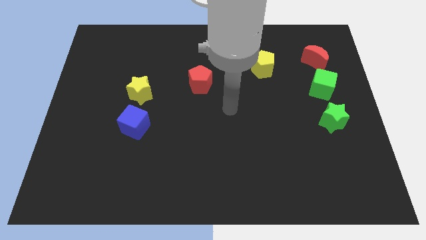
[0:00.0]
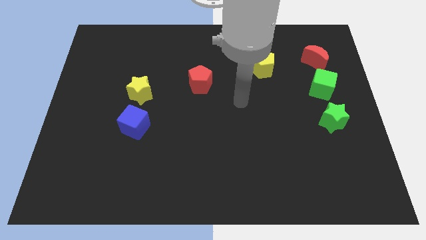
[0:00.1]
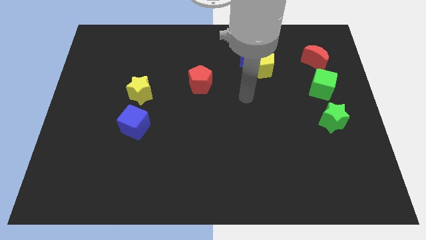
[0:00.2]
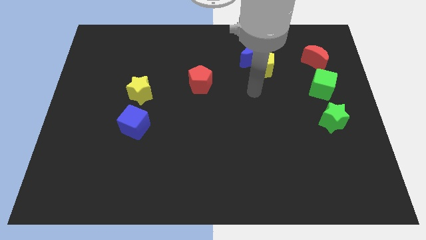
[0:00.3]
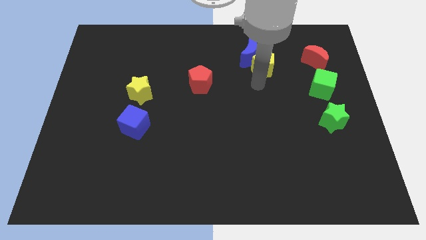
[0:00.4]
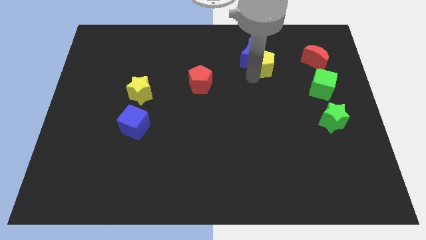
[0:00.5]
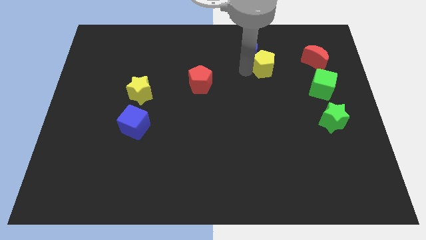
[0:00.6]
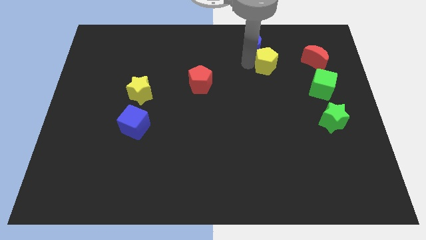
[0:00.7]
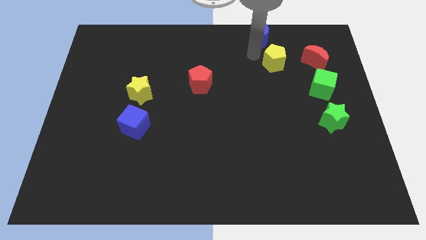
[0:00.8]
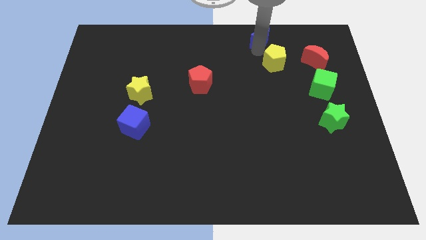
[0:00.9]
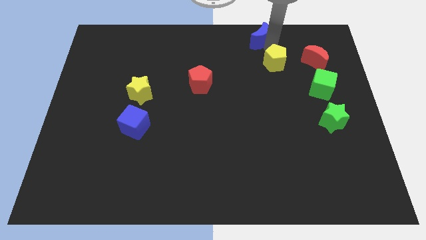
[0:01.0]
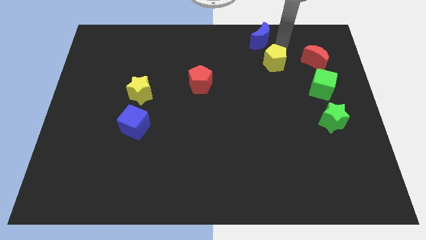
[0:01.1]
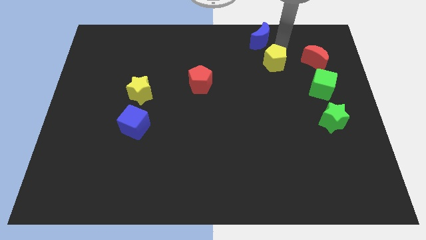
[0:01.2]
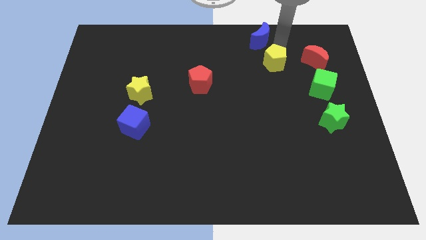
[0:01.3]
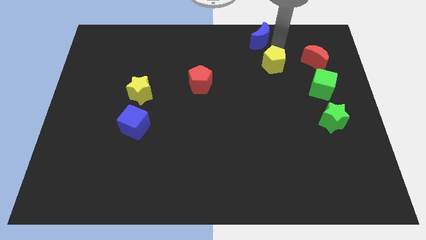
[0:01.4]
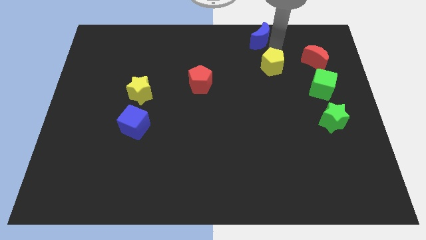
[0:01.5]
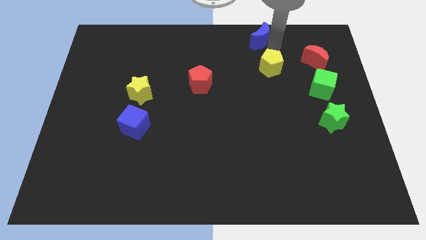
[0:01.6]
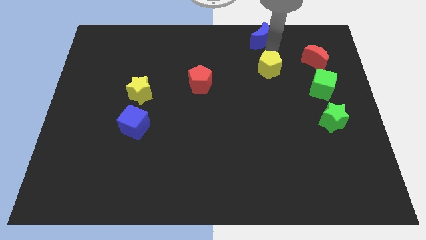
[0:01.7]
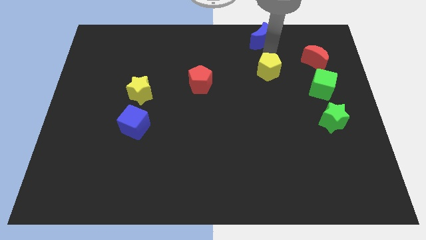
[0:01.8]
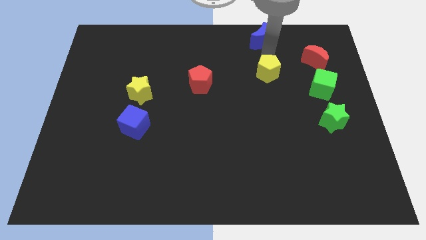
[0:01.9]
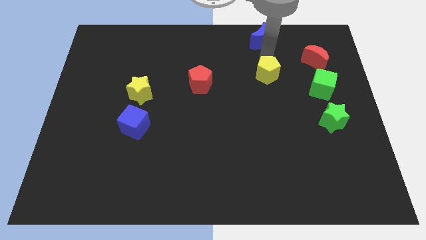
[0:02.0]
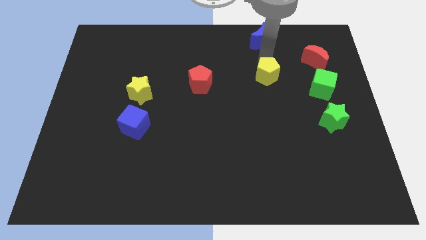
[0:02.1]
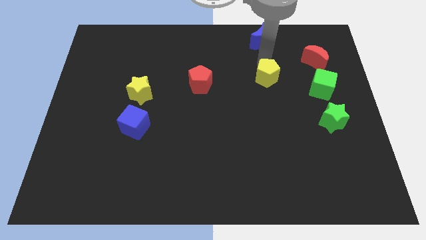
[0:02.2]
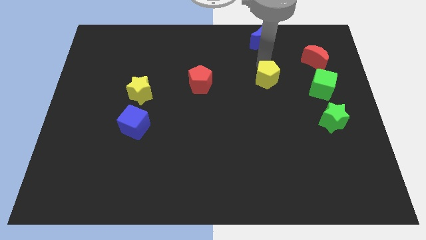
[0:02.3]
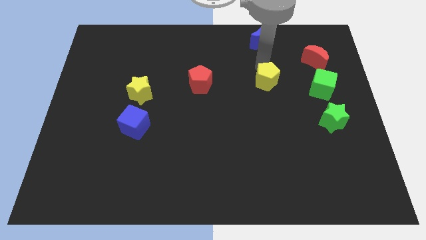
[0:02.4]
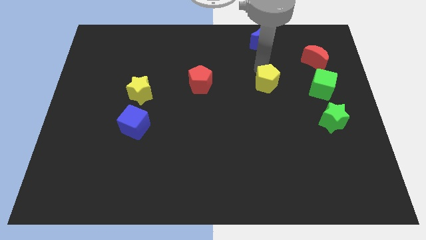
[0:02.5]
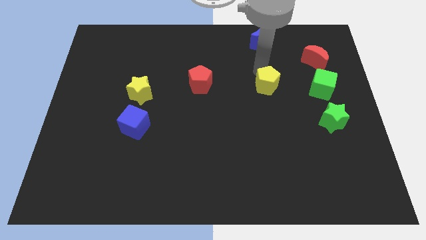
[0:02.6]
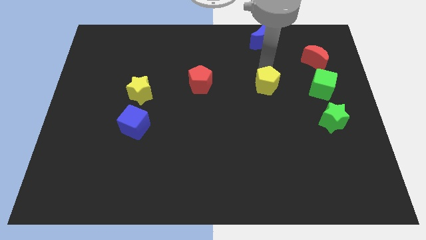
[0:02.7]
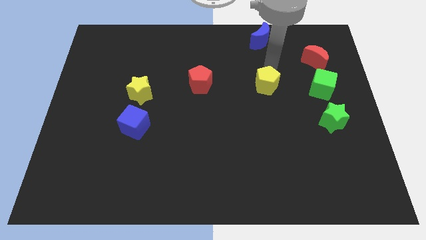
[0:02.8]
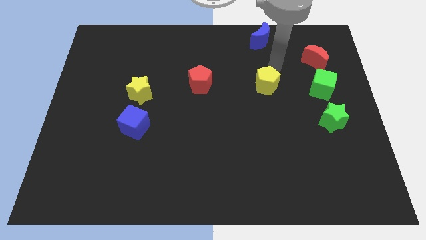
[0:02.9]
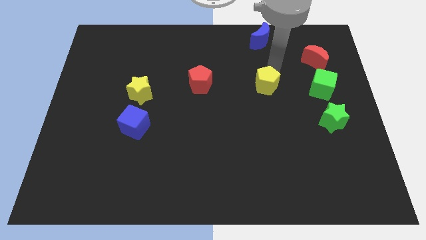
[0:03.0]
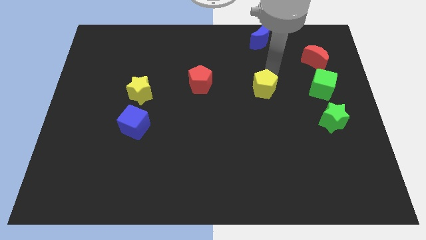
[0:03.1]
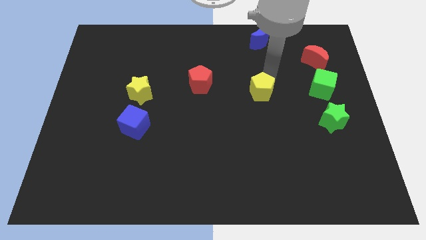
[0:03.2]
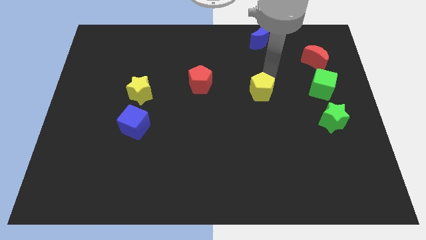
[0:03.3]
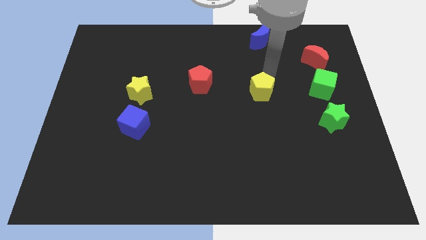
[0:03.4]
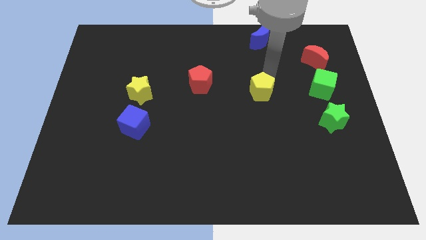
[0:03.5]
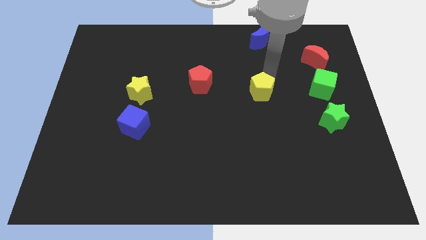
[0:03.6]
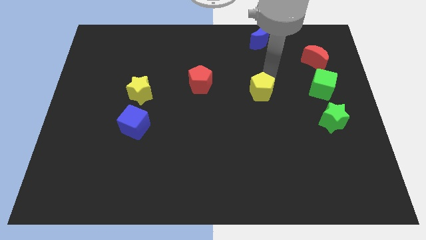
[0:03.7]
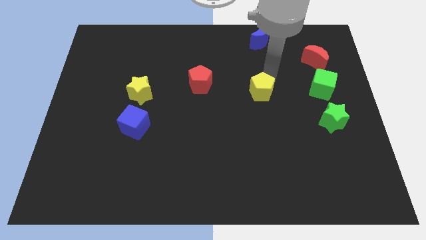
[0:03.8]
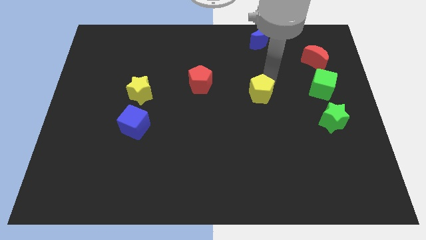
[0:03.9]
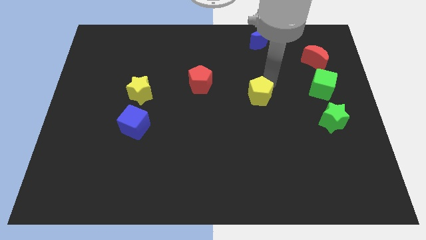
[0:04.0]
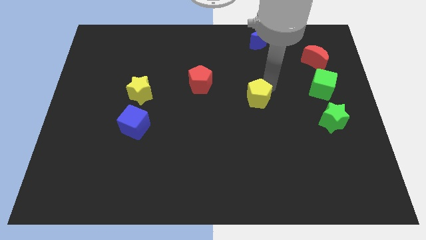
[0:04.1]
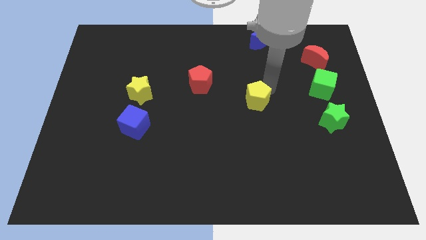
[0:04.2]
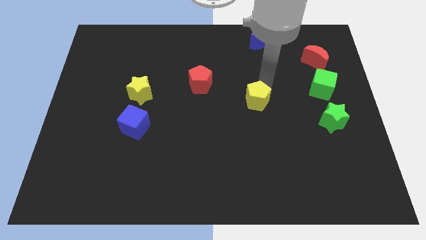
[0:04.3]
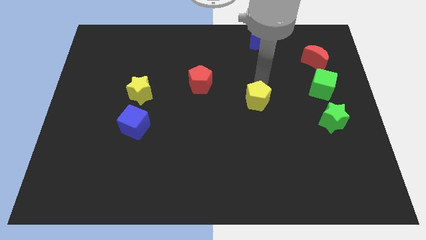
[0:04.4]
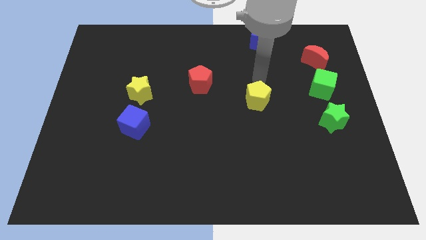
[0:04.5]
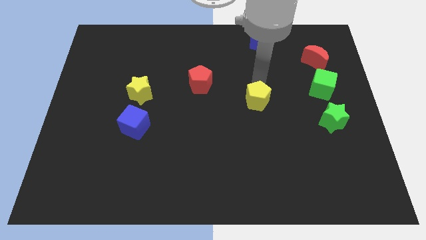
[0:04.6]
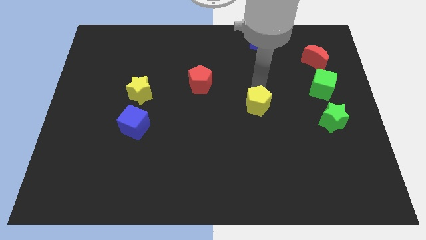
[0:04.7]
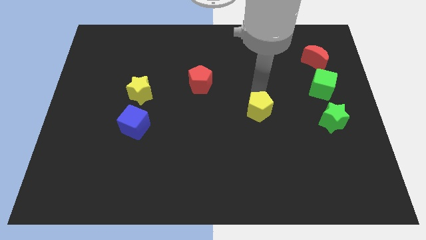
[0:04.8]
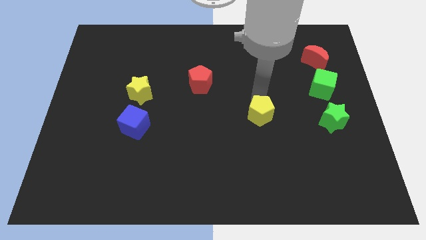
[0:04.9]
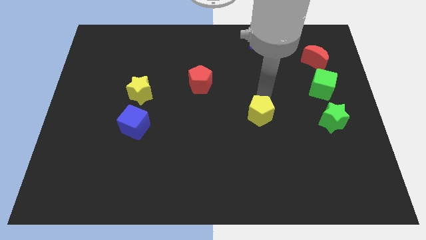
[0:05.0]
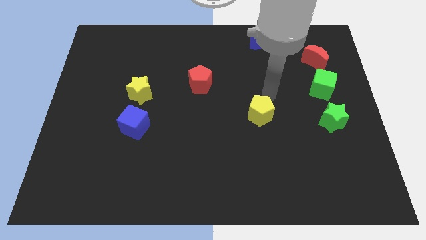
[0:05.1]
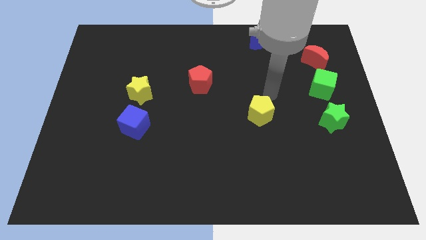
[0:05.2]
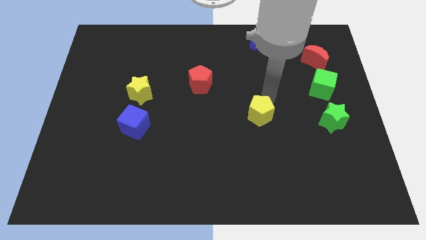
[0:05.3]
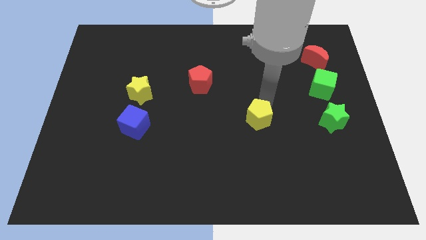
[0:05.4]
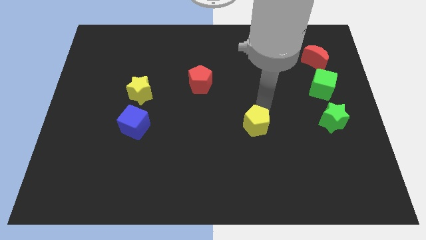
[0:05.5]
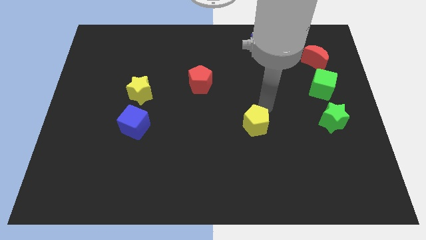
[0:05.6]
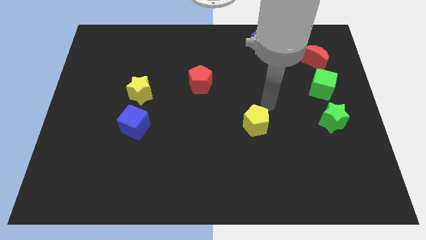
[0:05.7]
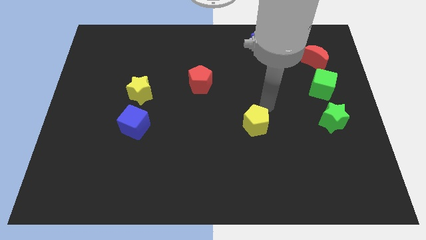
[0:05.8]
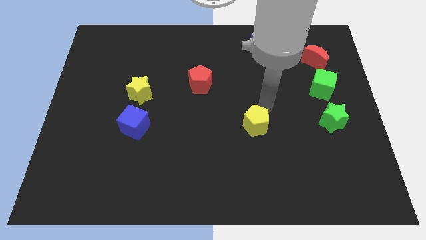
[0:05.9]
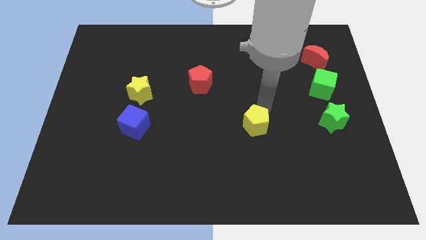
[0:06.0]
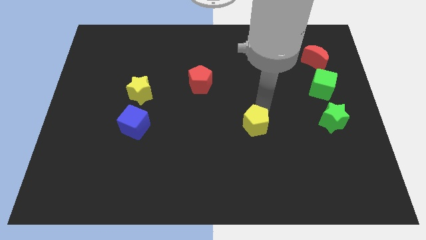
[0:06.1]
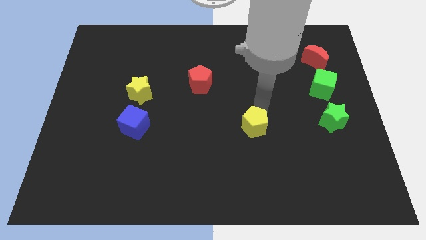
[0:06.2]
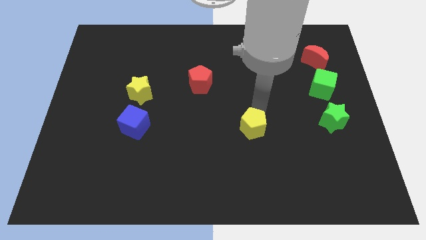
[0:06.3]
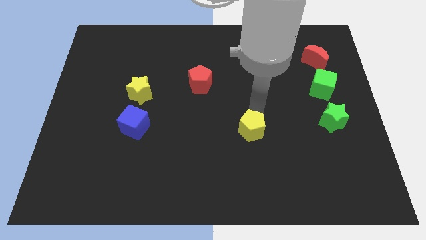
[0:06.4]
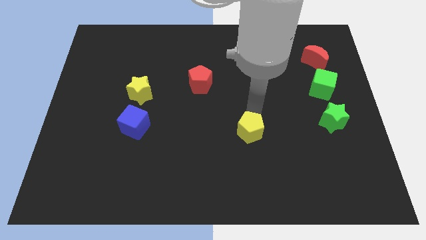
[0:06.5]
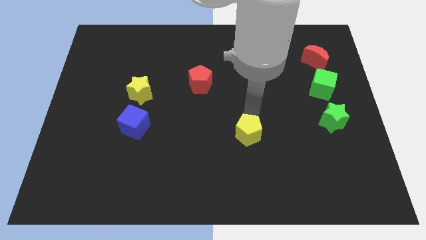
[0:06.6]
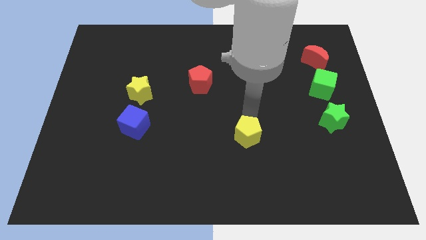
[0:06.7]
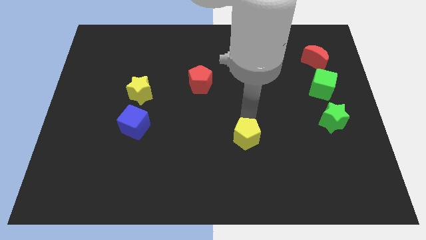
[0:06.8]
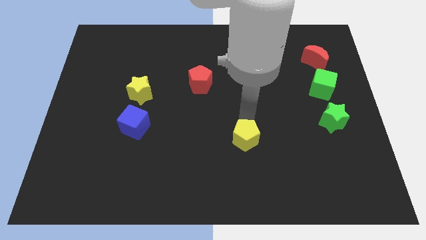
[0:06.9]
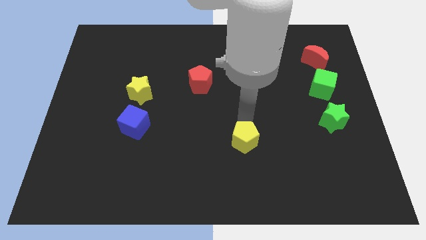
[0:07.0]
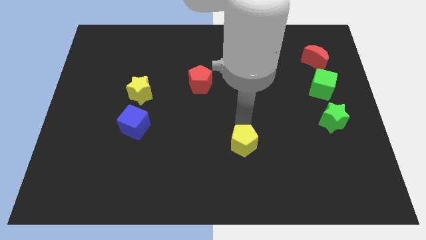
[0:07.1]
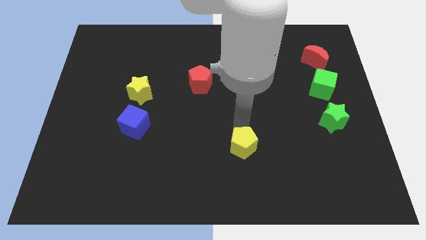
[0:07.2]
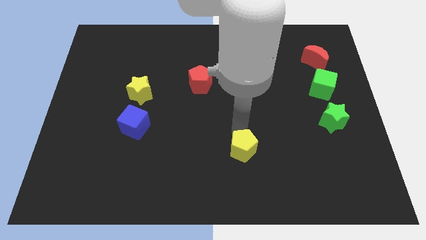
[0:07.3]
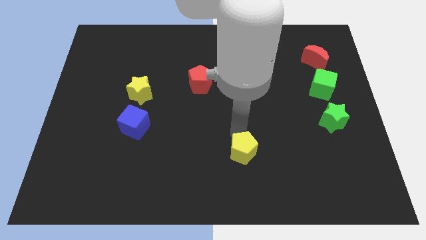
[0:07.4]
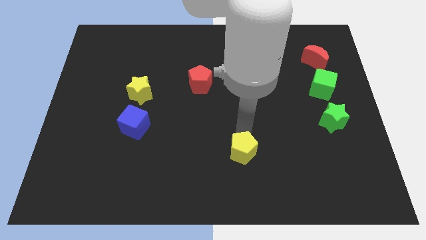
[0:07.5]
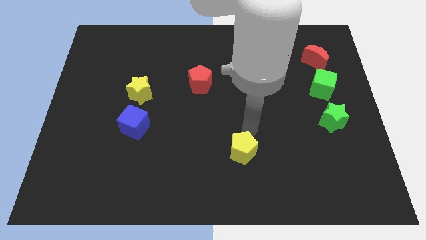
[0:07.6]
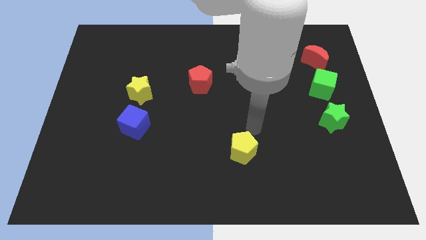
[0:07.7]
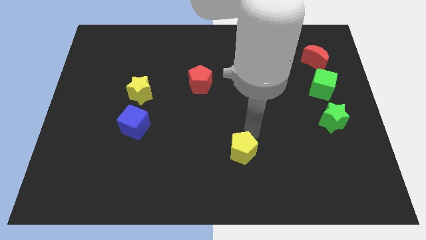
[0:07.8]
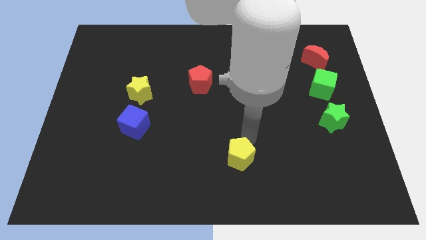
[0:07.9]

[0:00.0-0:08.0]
put the yellow pentagon to the bottom
